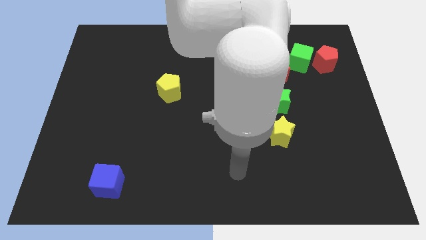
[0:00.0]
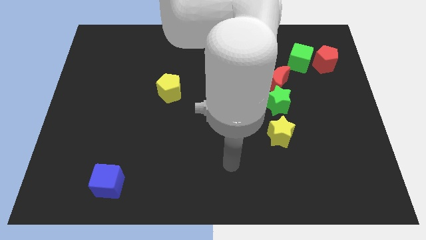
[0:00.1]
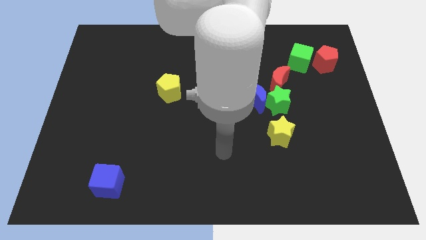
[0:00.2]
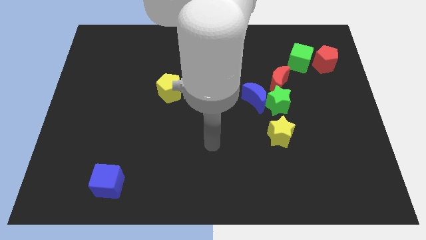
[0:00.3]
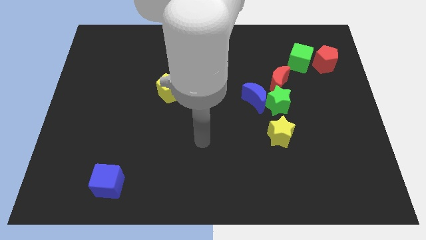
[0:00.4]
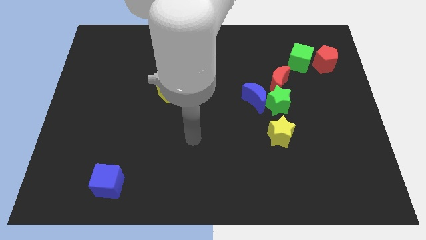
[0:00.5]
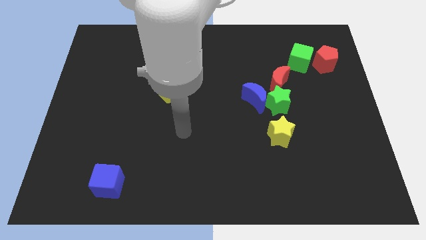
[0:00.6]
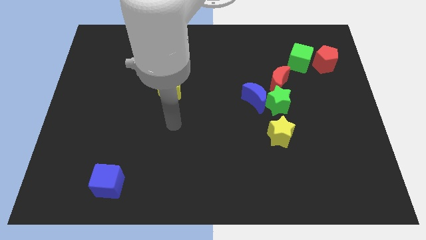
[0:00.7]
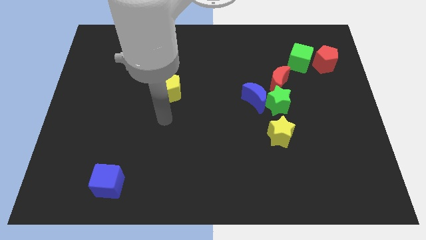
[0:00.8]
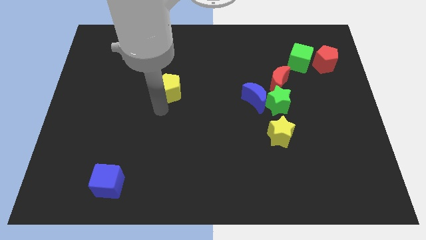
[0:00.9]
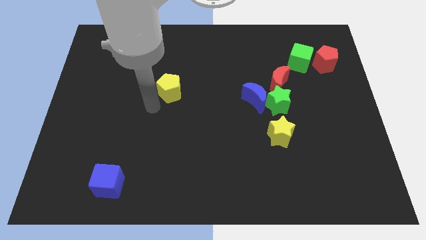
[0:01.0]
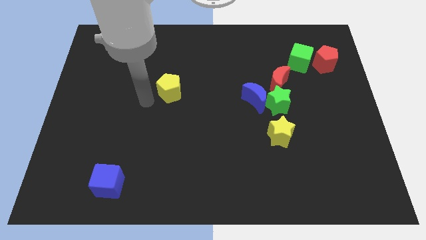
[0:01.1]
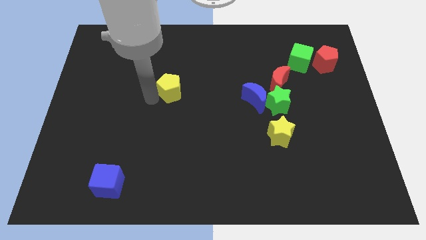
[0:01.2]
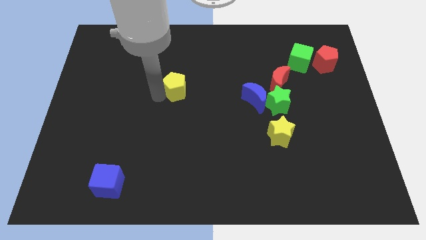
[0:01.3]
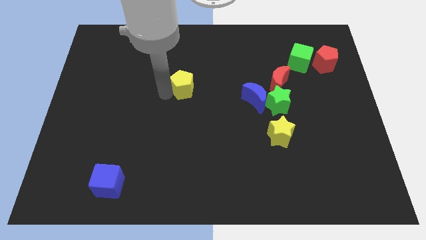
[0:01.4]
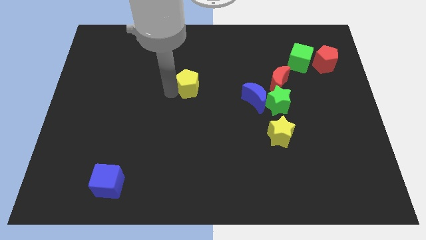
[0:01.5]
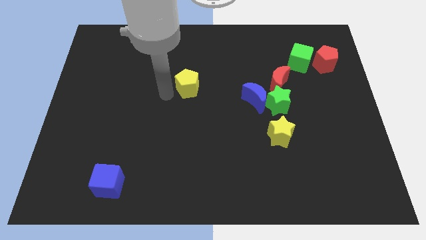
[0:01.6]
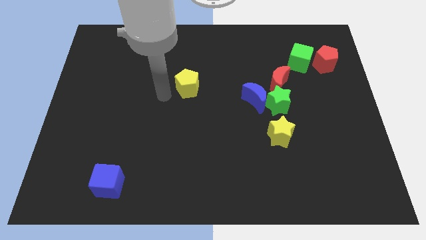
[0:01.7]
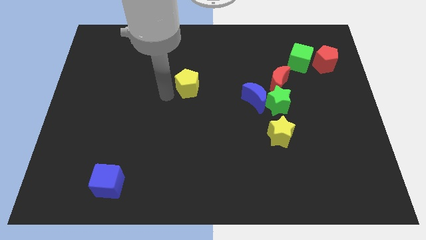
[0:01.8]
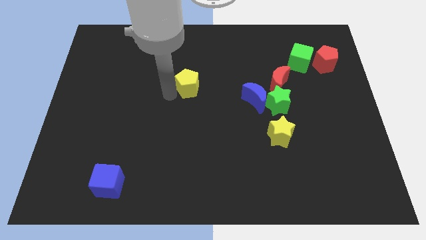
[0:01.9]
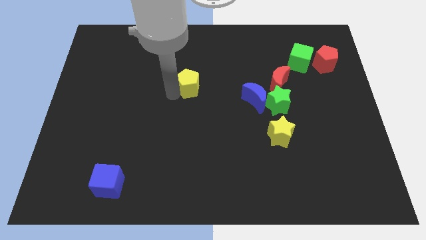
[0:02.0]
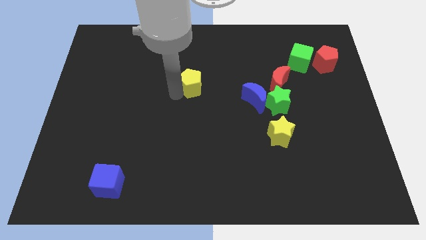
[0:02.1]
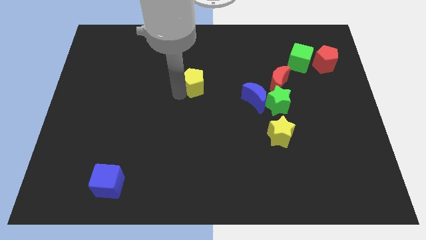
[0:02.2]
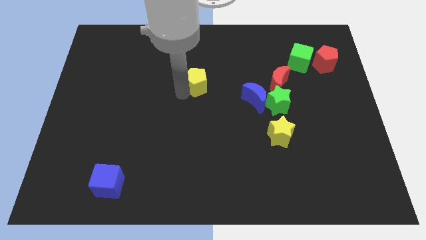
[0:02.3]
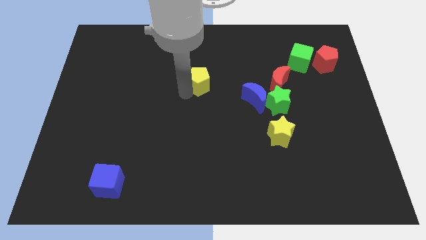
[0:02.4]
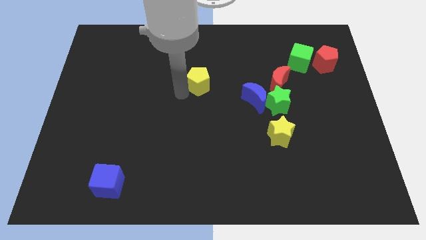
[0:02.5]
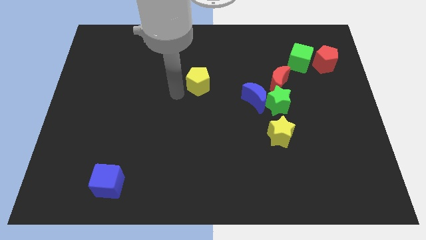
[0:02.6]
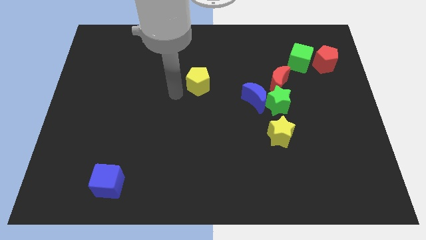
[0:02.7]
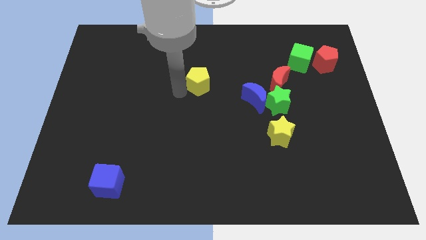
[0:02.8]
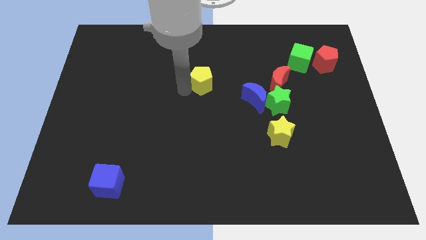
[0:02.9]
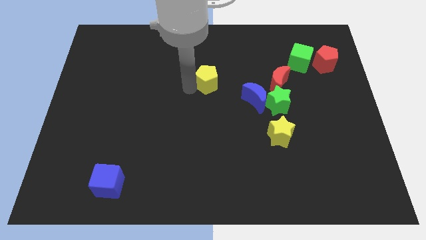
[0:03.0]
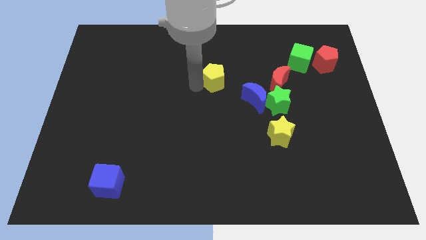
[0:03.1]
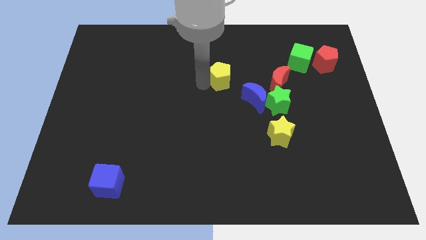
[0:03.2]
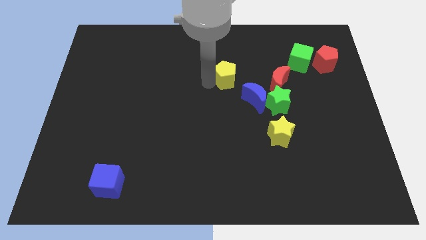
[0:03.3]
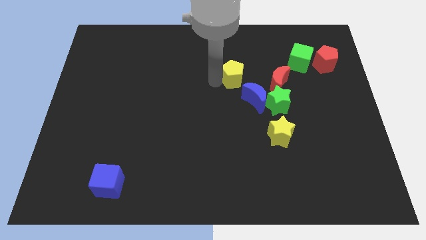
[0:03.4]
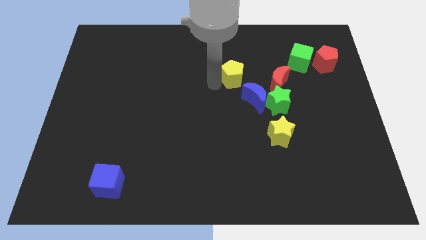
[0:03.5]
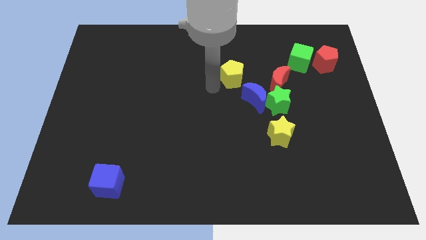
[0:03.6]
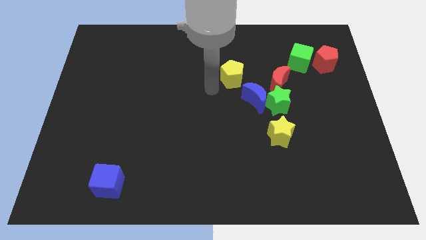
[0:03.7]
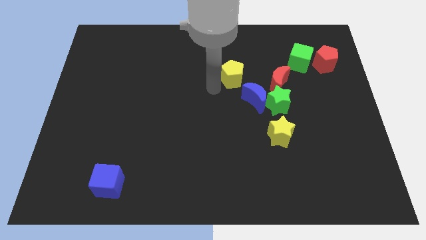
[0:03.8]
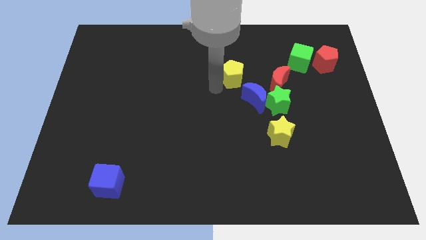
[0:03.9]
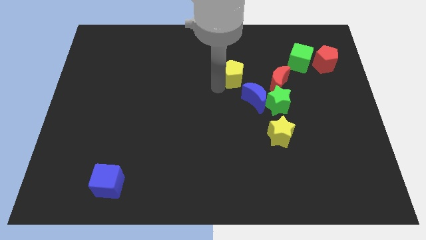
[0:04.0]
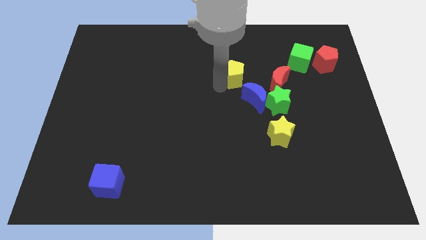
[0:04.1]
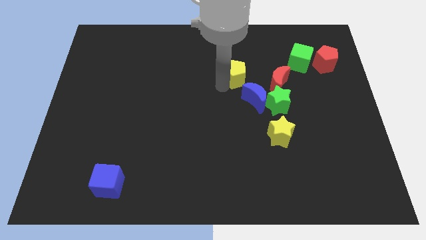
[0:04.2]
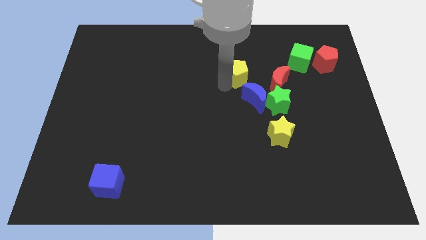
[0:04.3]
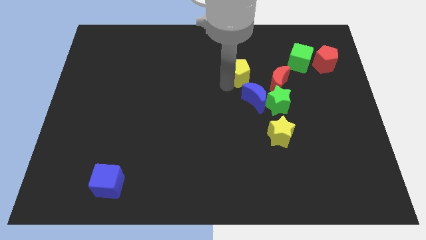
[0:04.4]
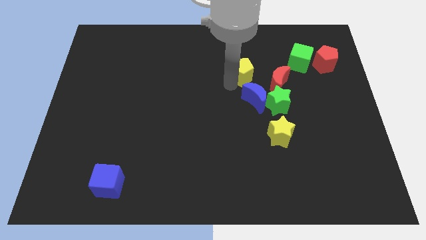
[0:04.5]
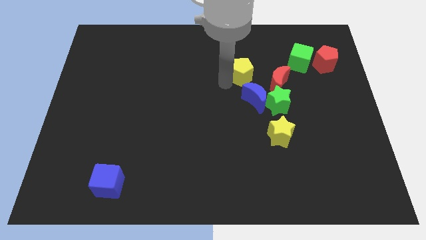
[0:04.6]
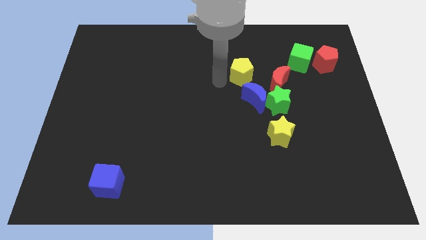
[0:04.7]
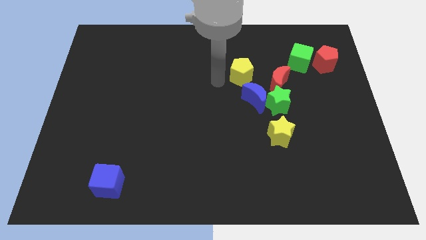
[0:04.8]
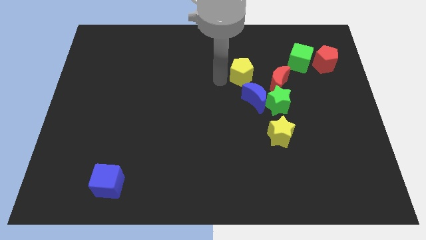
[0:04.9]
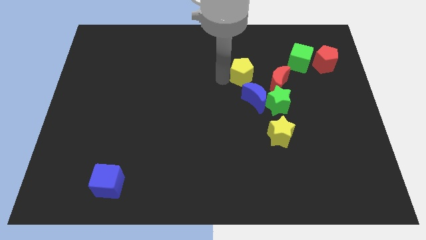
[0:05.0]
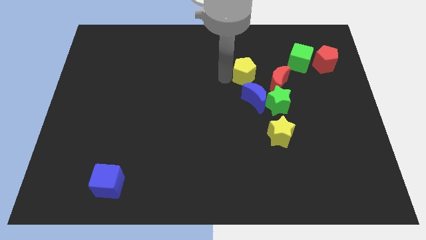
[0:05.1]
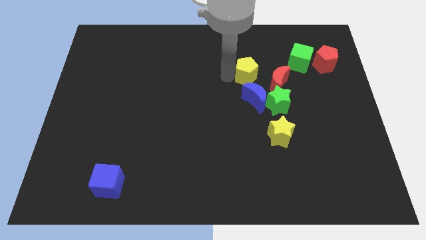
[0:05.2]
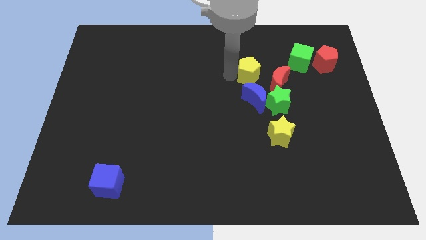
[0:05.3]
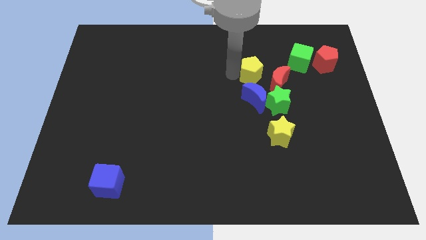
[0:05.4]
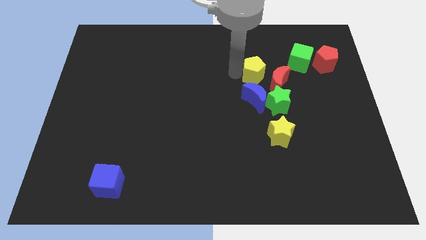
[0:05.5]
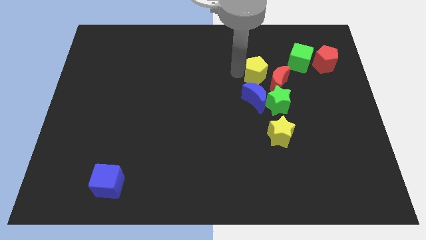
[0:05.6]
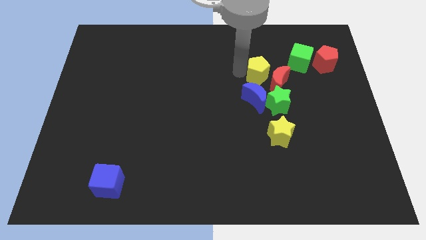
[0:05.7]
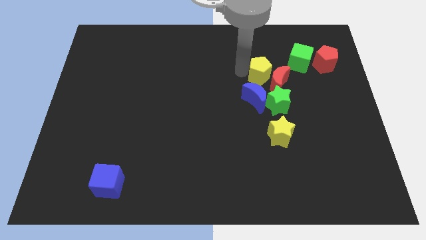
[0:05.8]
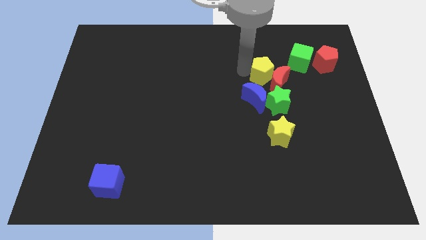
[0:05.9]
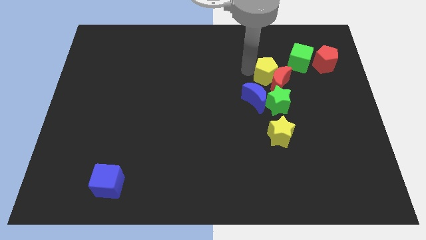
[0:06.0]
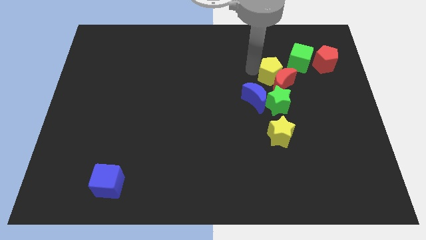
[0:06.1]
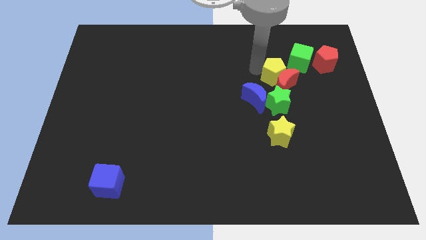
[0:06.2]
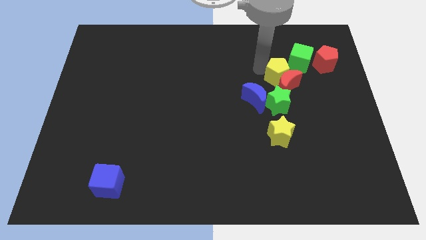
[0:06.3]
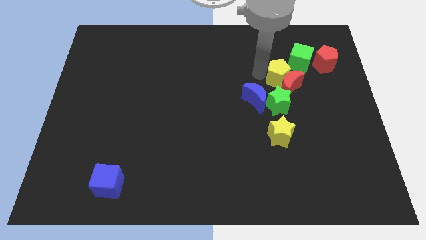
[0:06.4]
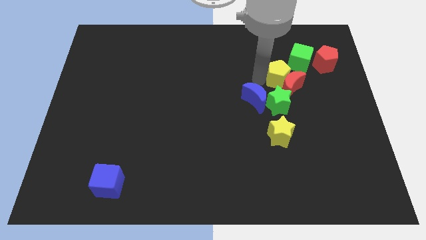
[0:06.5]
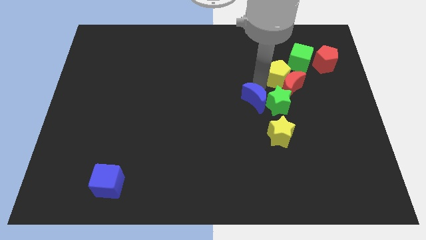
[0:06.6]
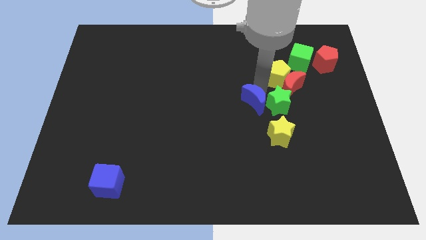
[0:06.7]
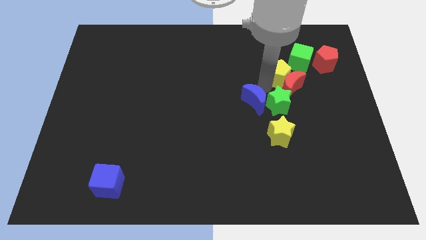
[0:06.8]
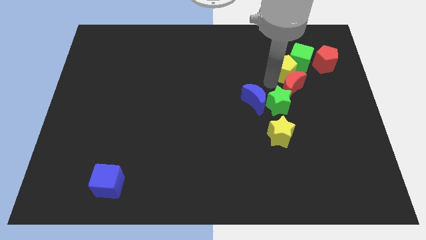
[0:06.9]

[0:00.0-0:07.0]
move the yellow pentagon towards the green cube

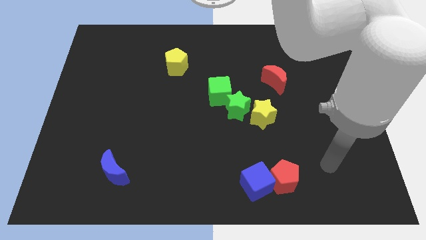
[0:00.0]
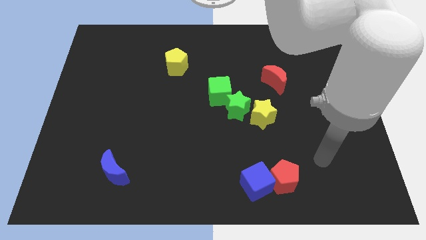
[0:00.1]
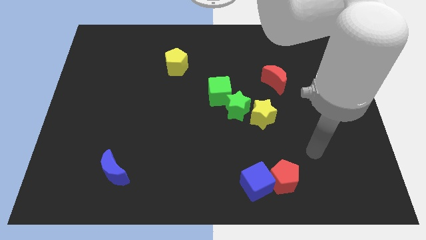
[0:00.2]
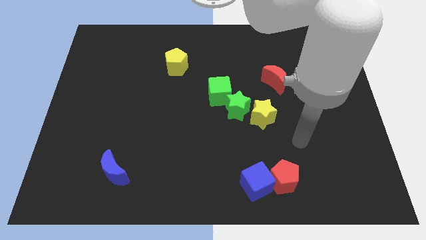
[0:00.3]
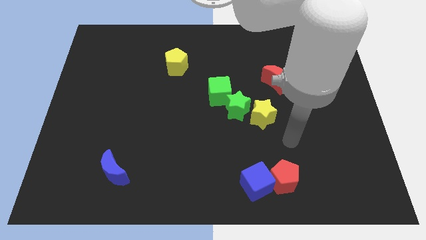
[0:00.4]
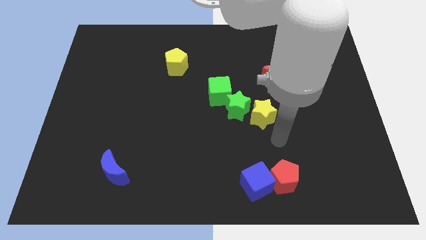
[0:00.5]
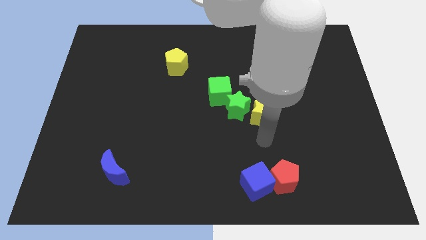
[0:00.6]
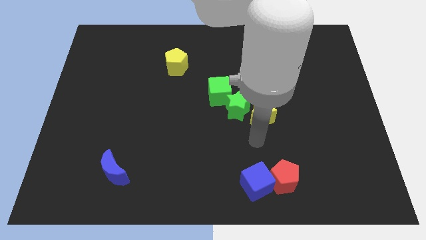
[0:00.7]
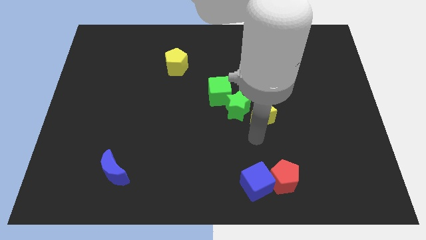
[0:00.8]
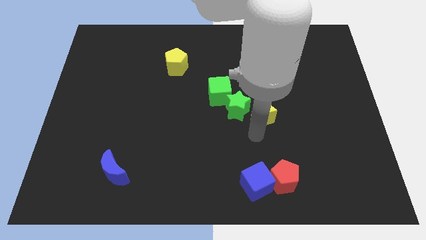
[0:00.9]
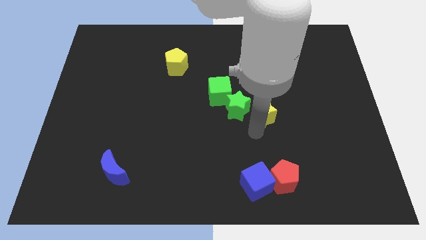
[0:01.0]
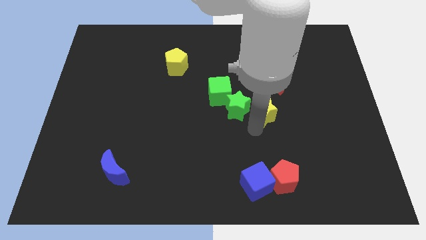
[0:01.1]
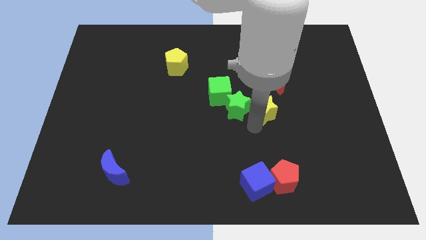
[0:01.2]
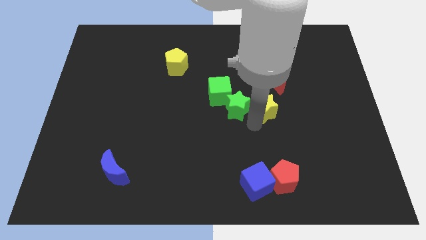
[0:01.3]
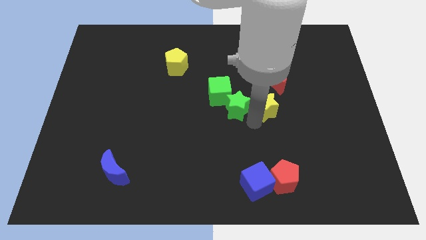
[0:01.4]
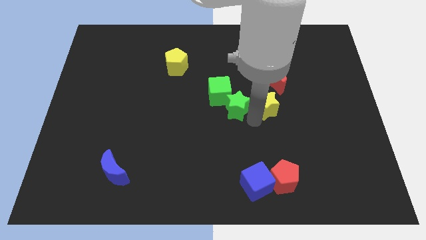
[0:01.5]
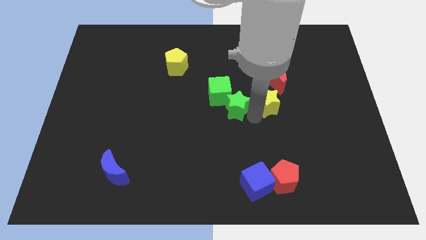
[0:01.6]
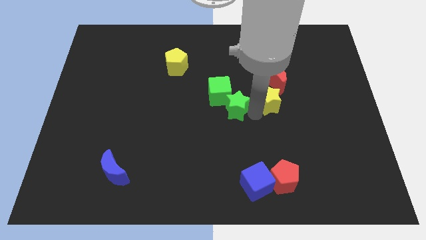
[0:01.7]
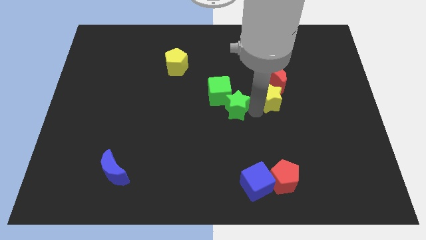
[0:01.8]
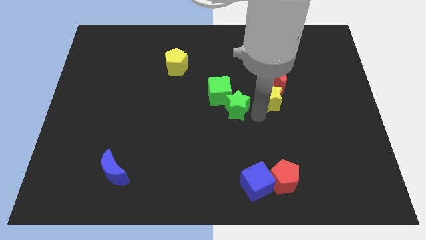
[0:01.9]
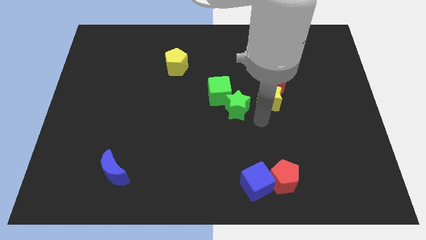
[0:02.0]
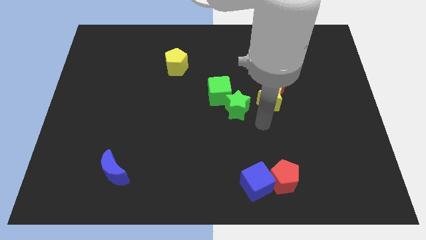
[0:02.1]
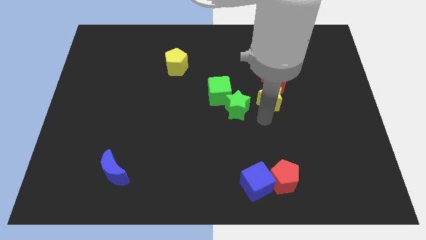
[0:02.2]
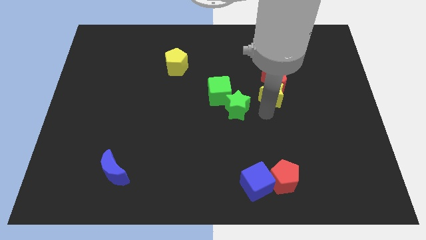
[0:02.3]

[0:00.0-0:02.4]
put the yellow star towards the red moon
